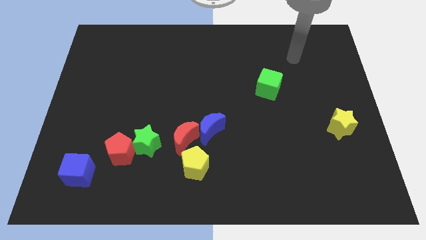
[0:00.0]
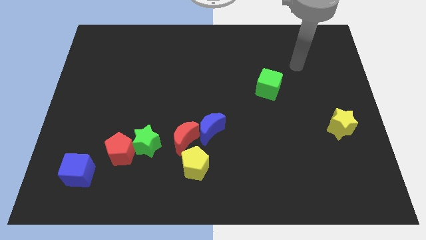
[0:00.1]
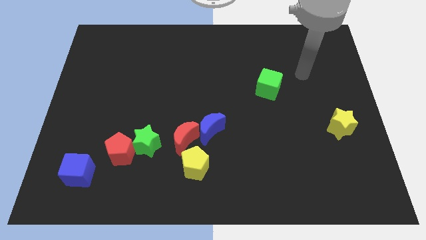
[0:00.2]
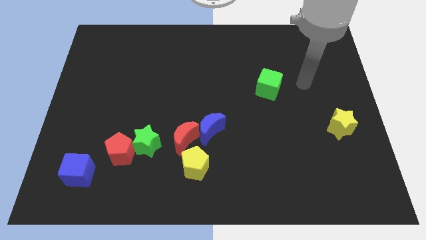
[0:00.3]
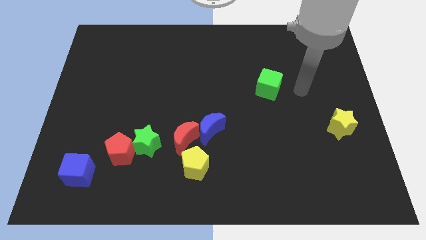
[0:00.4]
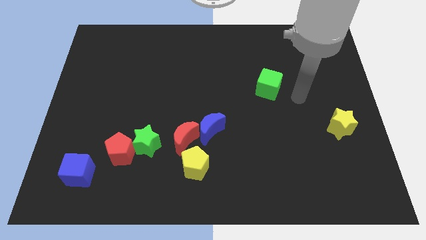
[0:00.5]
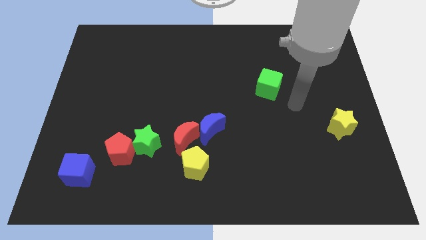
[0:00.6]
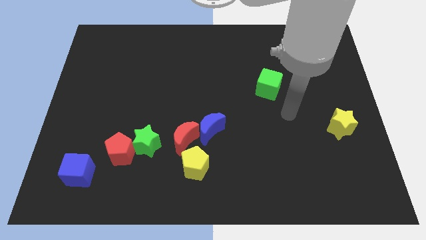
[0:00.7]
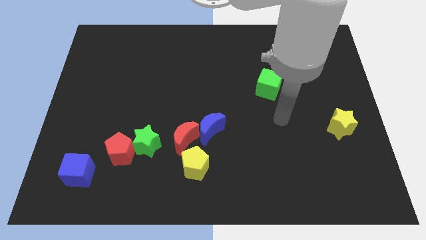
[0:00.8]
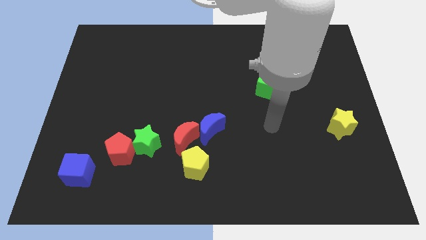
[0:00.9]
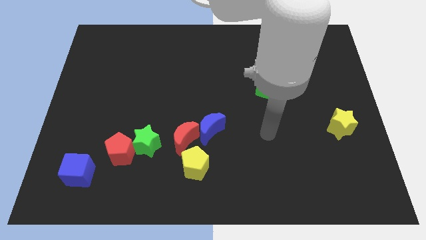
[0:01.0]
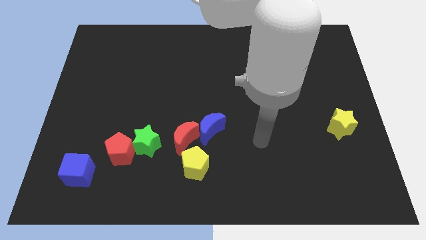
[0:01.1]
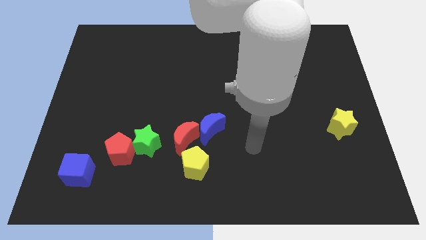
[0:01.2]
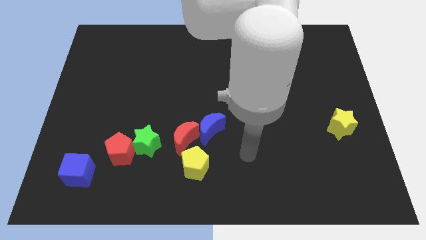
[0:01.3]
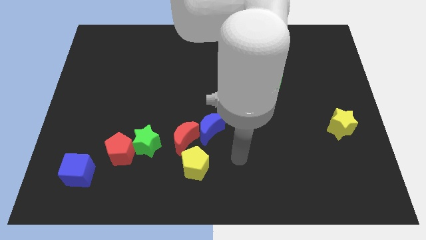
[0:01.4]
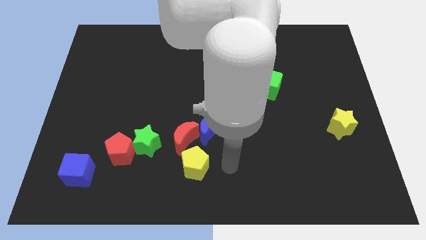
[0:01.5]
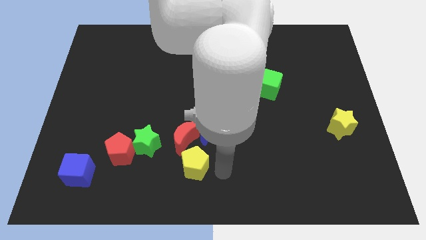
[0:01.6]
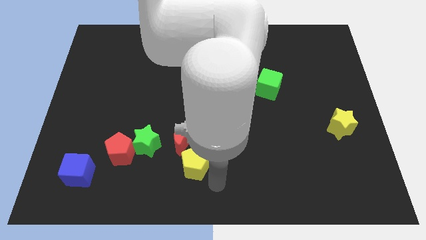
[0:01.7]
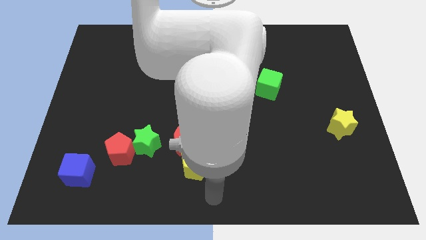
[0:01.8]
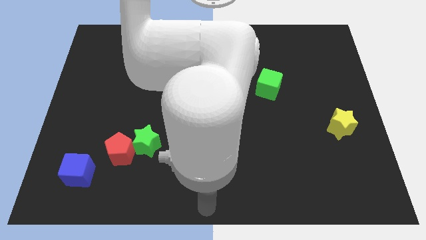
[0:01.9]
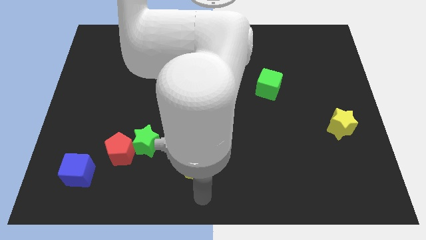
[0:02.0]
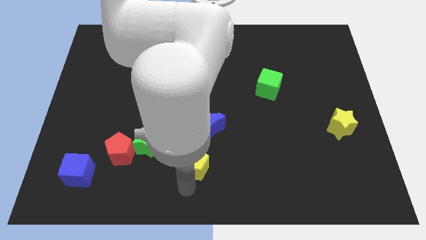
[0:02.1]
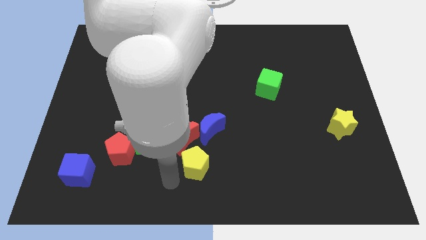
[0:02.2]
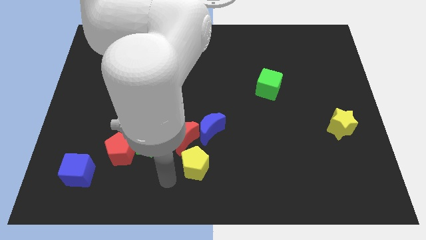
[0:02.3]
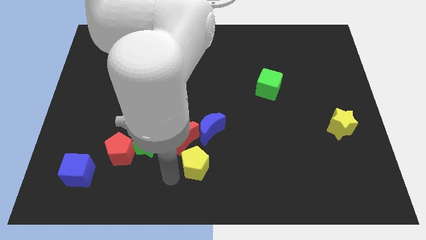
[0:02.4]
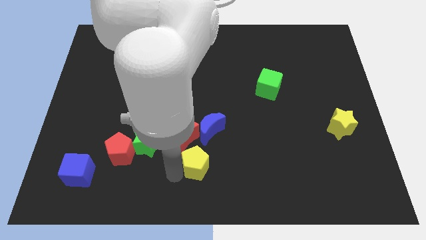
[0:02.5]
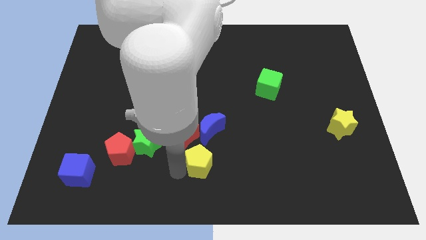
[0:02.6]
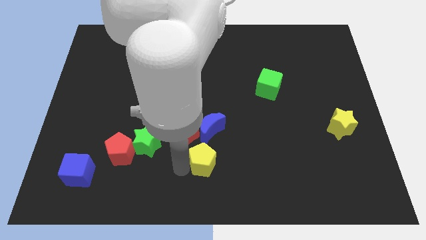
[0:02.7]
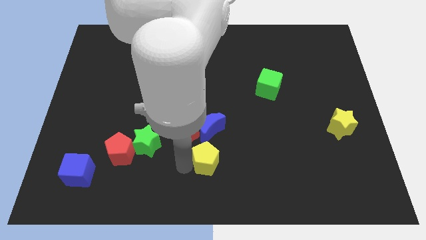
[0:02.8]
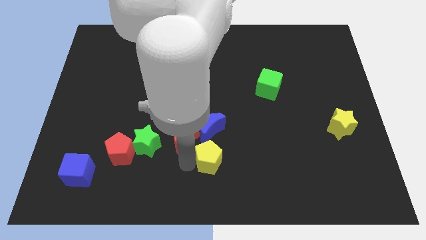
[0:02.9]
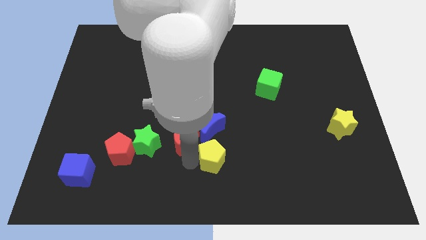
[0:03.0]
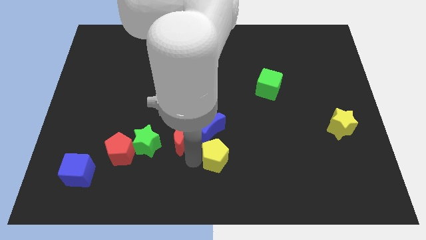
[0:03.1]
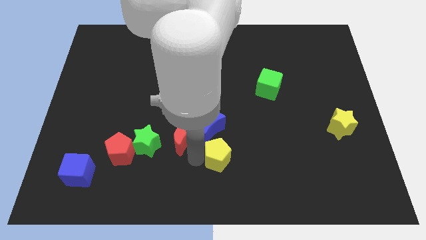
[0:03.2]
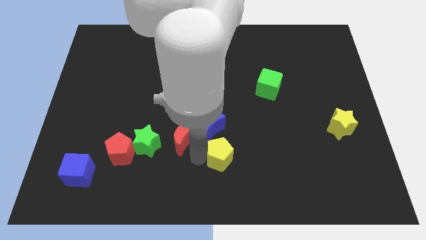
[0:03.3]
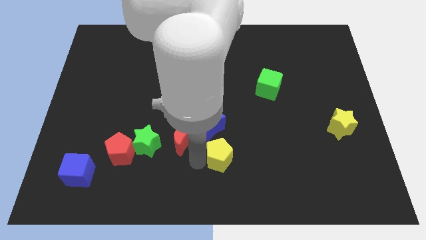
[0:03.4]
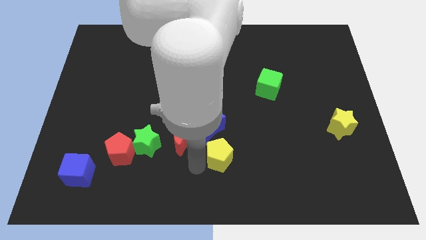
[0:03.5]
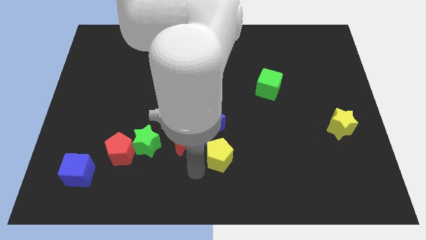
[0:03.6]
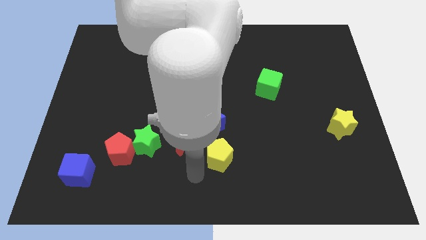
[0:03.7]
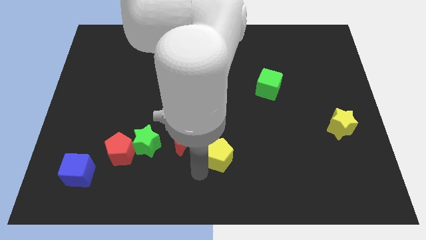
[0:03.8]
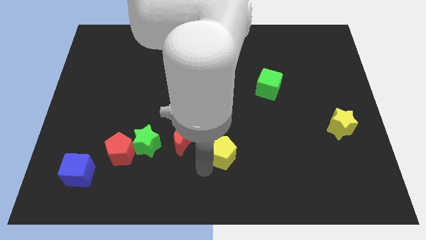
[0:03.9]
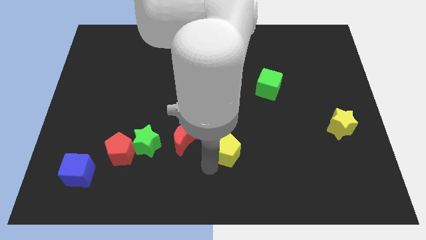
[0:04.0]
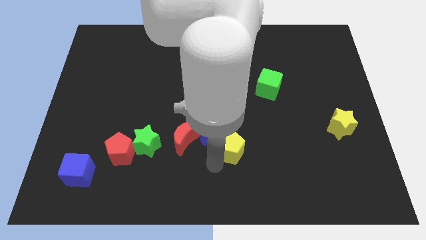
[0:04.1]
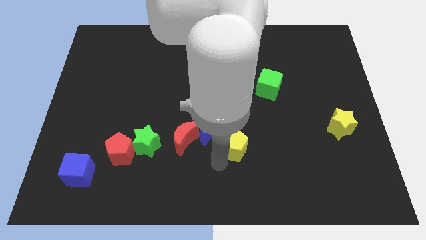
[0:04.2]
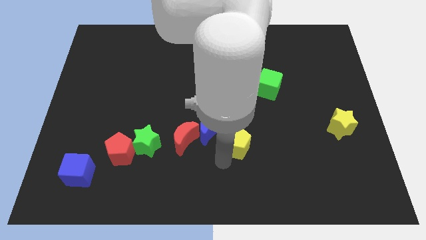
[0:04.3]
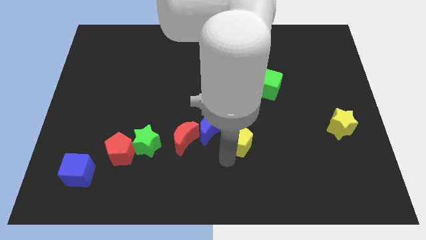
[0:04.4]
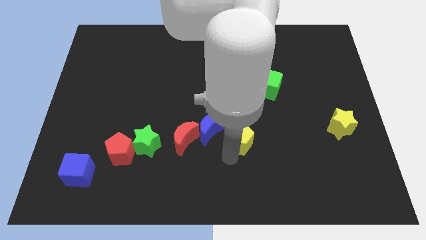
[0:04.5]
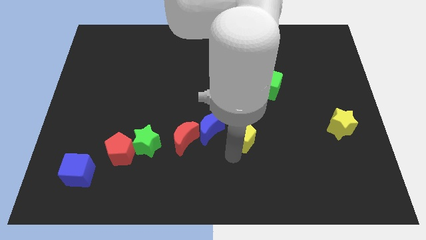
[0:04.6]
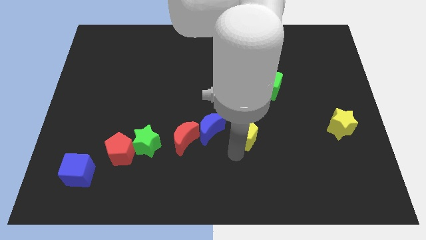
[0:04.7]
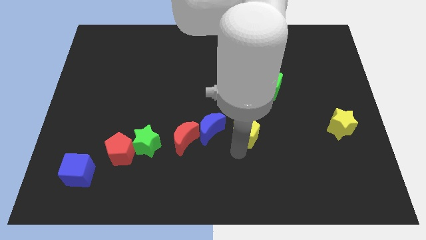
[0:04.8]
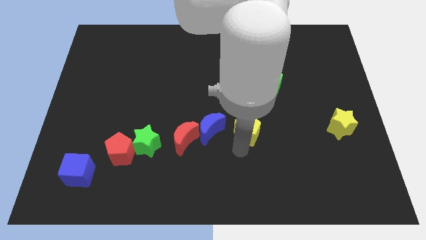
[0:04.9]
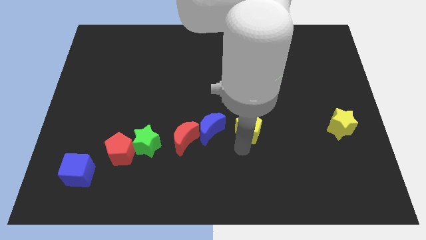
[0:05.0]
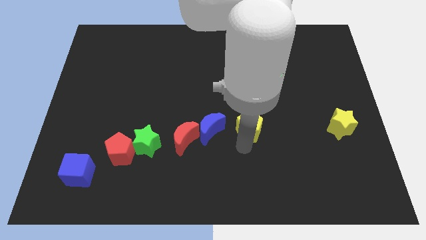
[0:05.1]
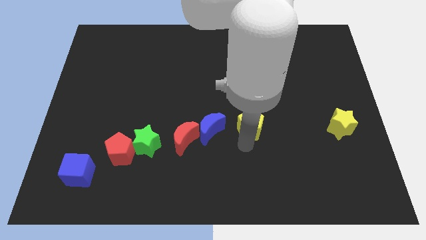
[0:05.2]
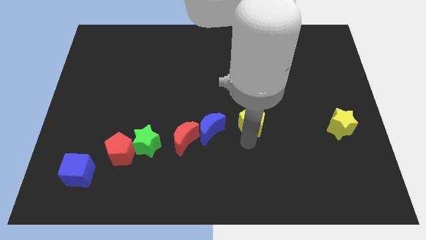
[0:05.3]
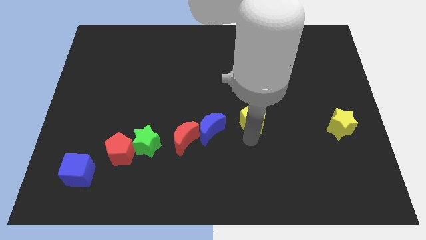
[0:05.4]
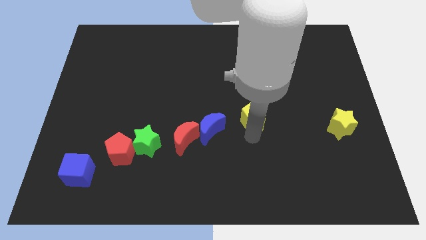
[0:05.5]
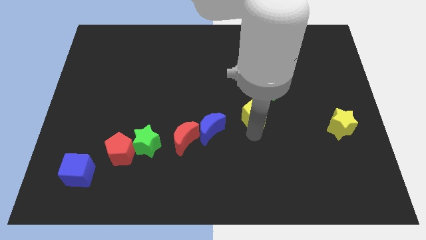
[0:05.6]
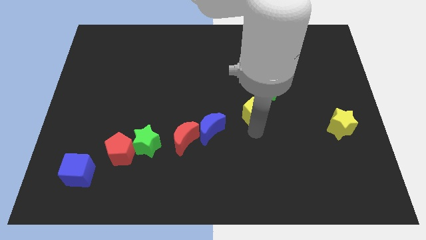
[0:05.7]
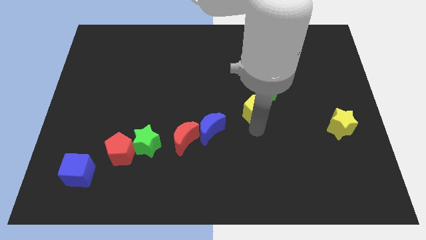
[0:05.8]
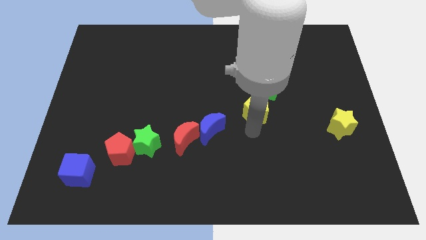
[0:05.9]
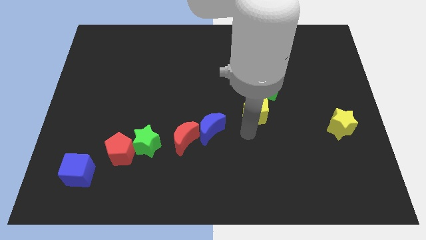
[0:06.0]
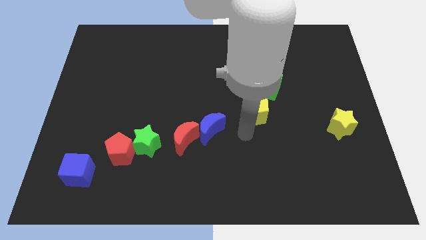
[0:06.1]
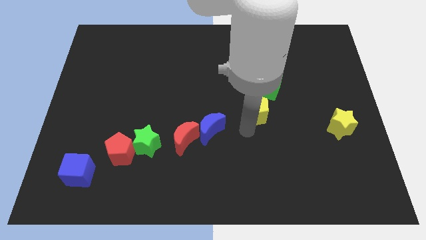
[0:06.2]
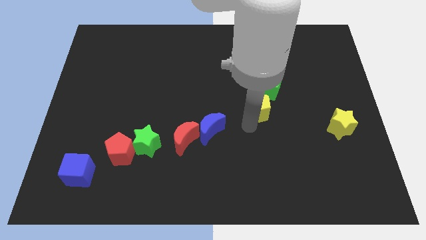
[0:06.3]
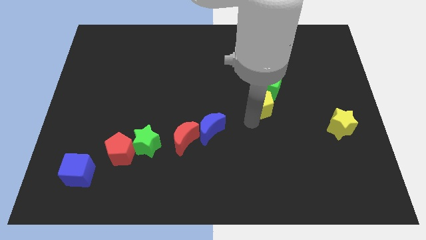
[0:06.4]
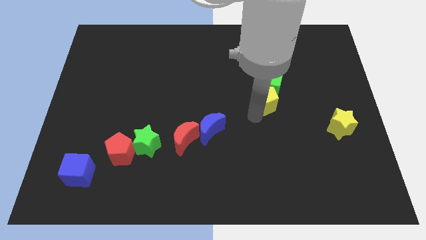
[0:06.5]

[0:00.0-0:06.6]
move the yellow pentagon next to the green cube

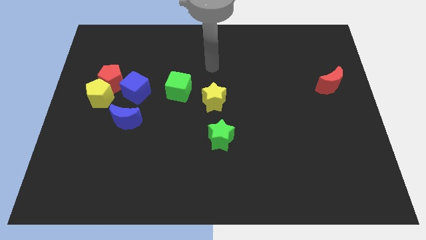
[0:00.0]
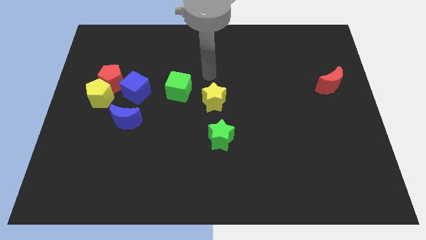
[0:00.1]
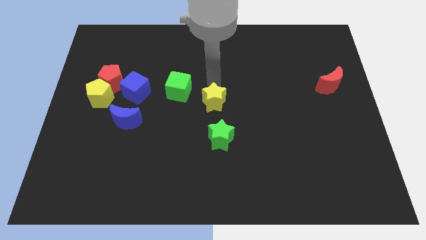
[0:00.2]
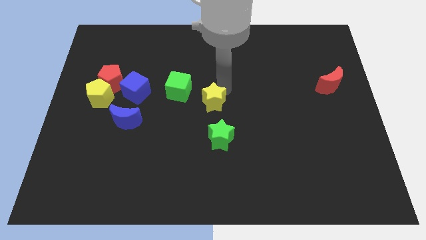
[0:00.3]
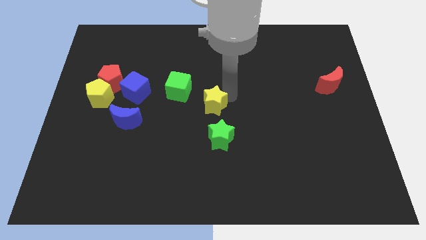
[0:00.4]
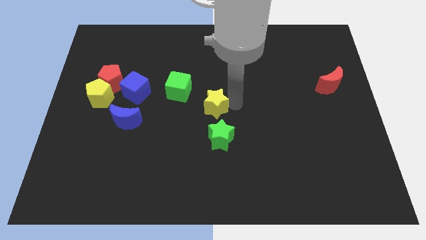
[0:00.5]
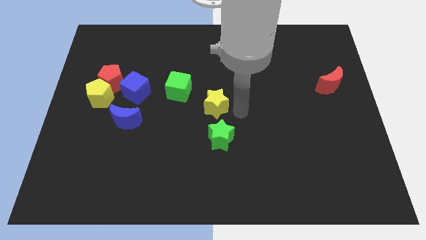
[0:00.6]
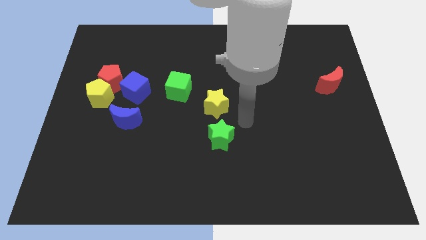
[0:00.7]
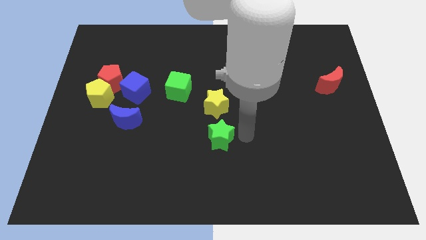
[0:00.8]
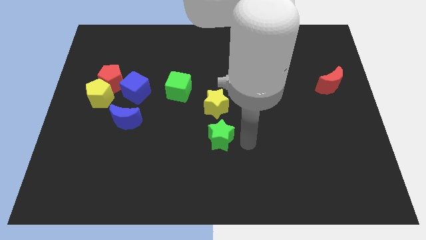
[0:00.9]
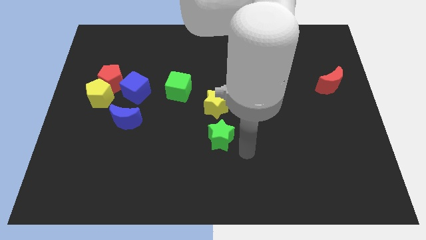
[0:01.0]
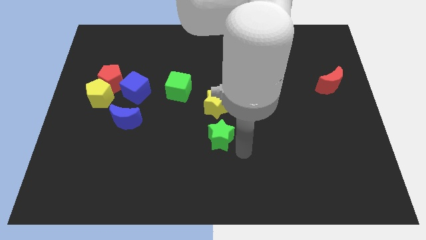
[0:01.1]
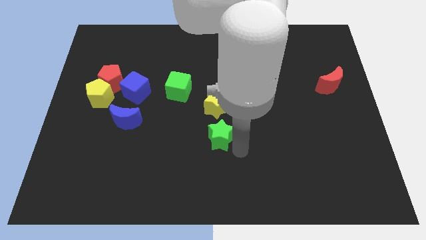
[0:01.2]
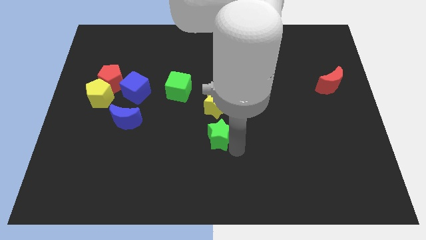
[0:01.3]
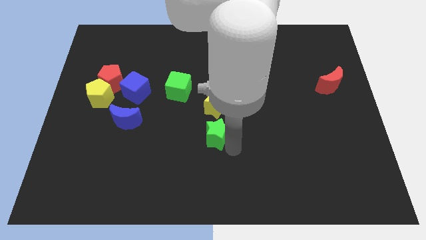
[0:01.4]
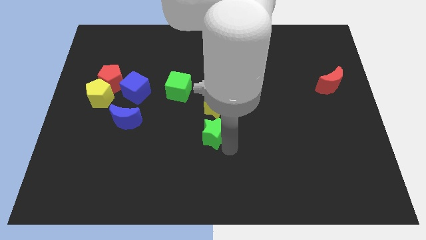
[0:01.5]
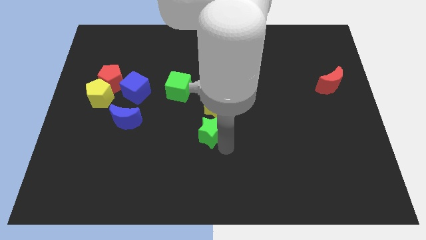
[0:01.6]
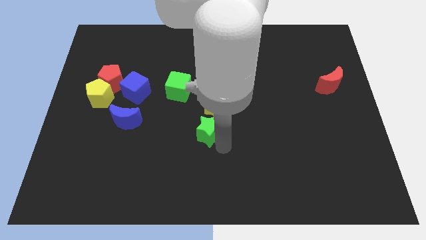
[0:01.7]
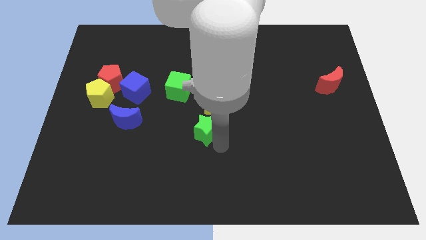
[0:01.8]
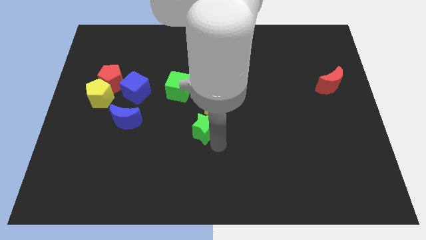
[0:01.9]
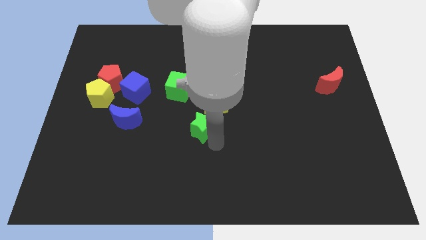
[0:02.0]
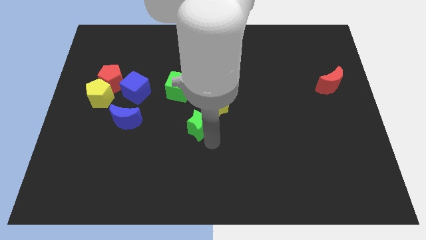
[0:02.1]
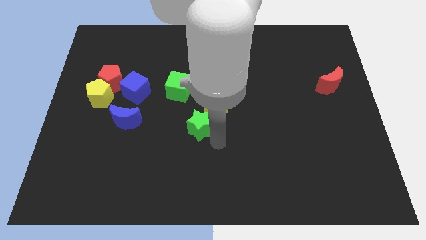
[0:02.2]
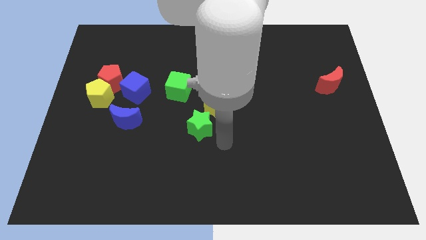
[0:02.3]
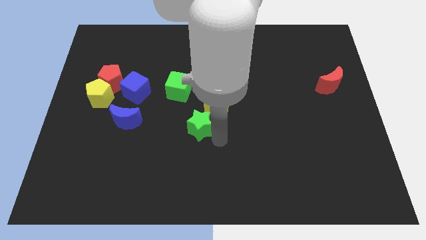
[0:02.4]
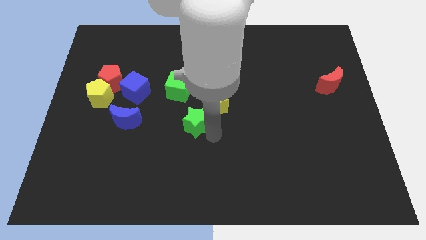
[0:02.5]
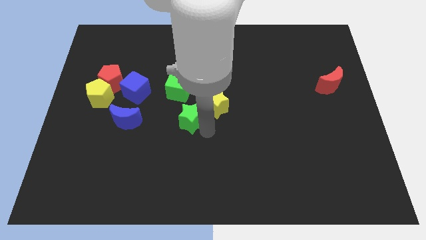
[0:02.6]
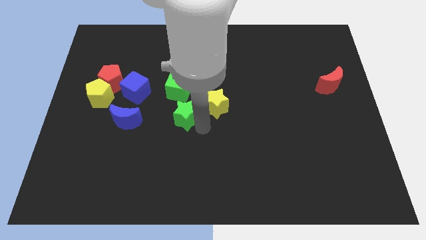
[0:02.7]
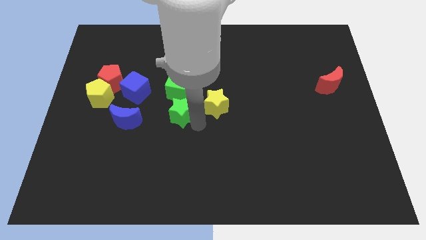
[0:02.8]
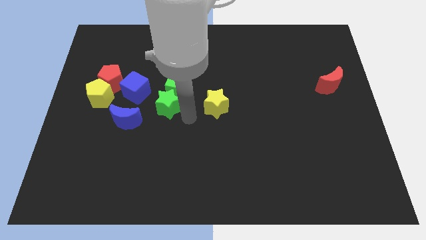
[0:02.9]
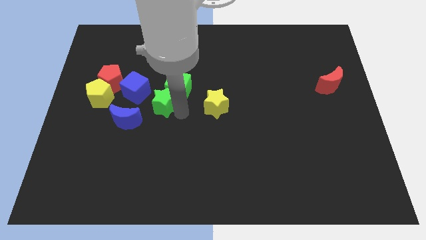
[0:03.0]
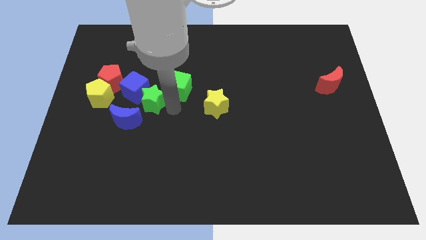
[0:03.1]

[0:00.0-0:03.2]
push the green star close to the blue cube
